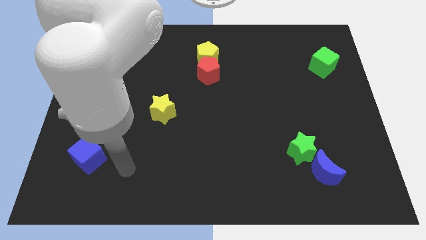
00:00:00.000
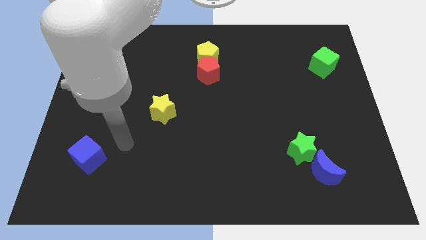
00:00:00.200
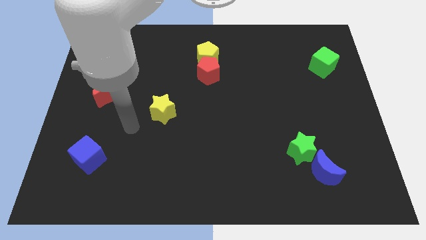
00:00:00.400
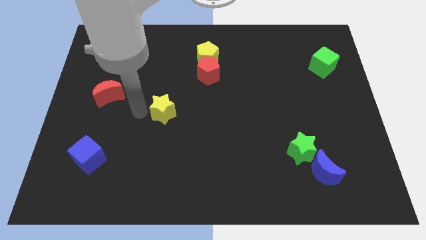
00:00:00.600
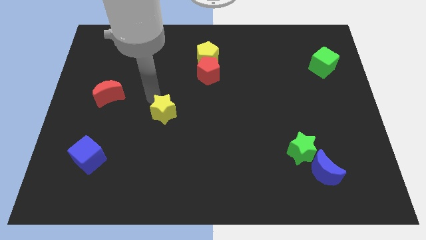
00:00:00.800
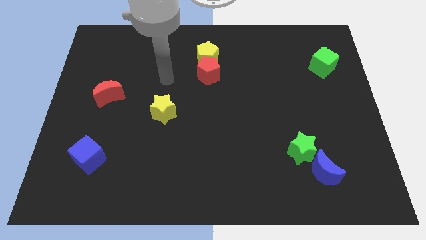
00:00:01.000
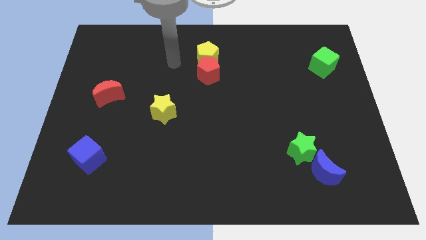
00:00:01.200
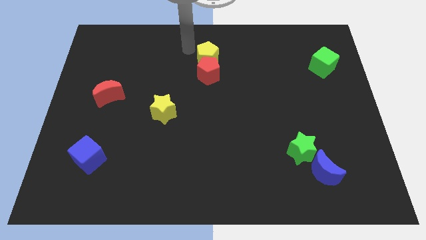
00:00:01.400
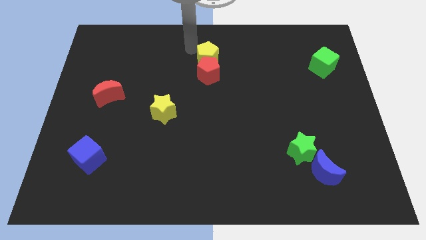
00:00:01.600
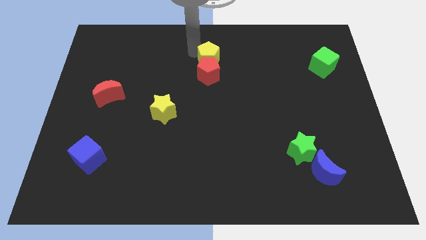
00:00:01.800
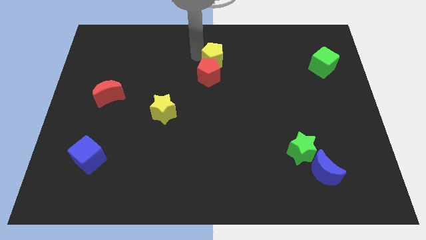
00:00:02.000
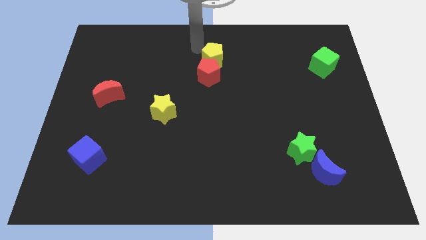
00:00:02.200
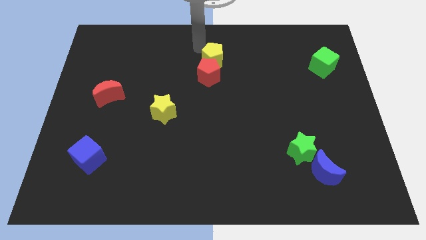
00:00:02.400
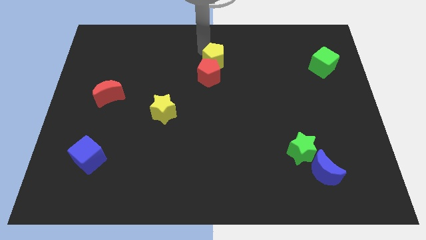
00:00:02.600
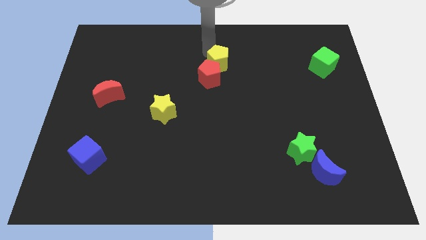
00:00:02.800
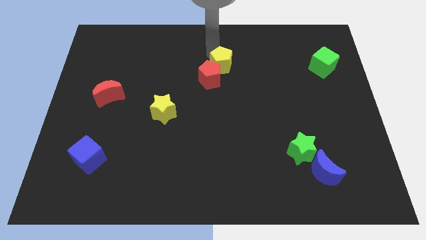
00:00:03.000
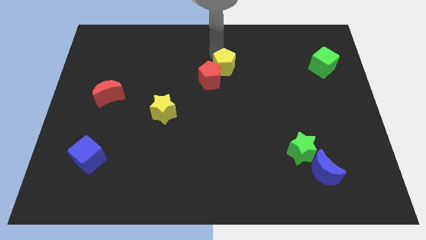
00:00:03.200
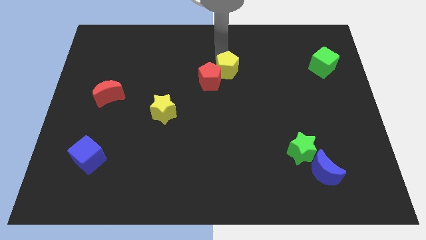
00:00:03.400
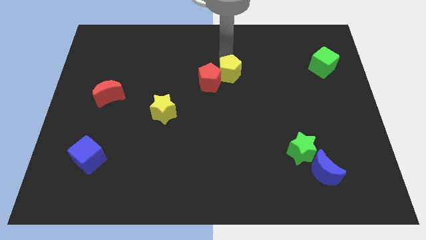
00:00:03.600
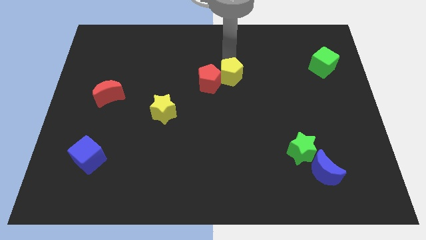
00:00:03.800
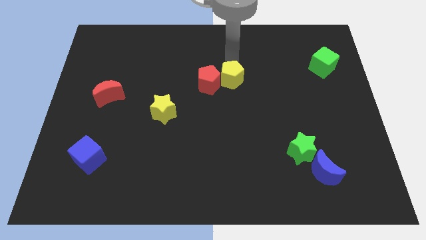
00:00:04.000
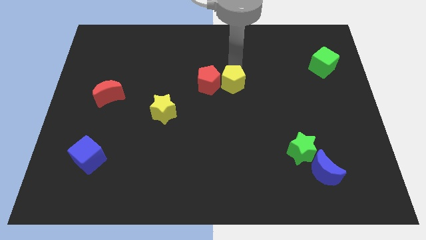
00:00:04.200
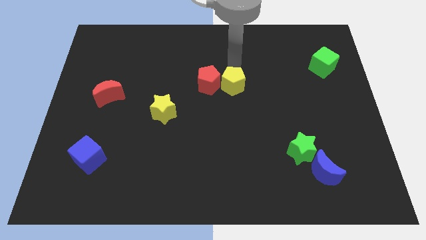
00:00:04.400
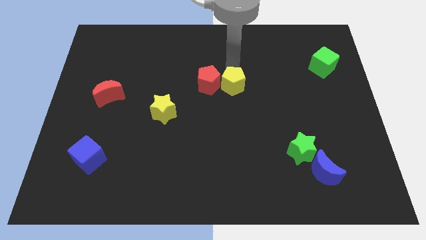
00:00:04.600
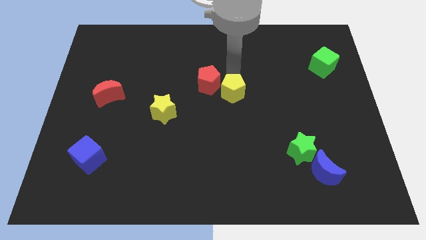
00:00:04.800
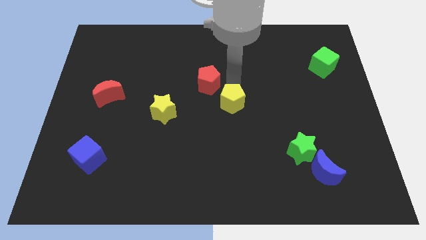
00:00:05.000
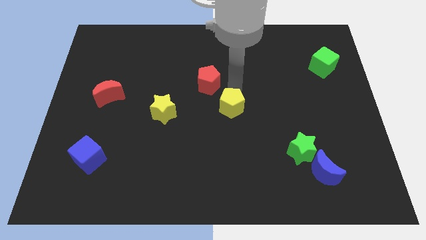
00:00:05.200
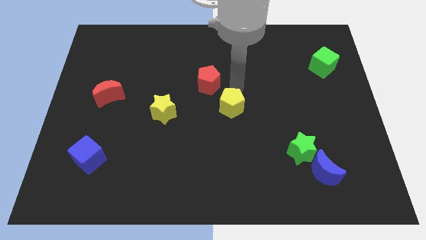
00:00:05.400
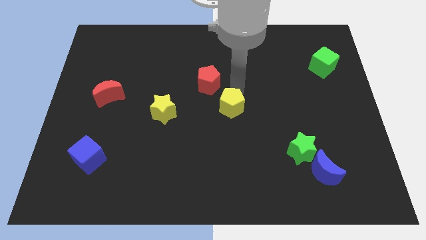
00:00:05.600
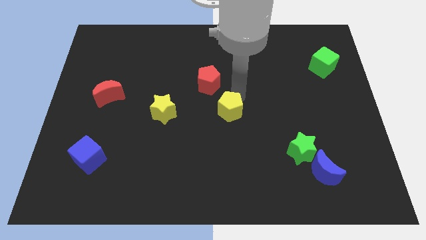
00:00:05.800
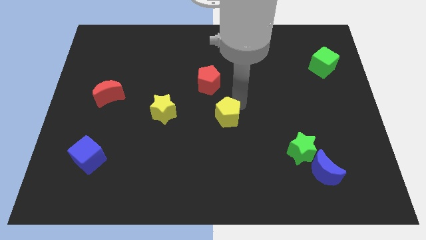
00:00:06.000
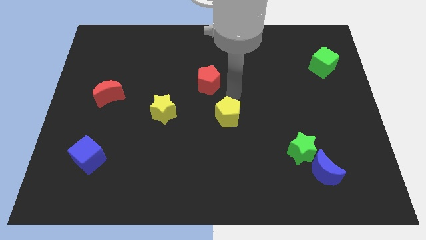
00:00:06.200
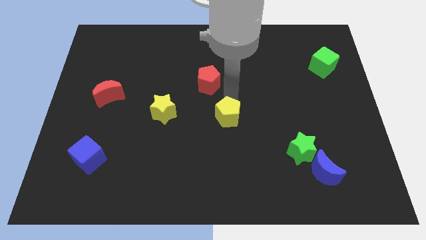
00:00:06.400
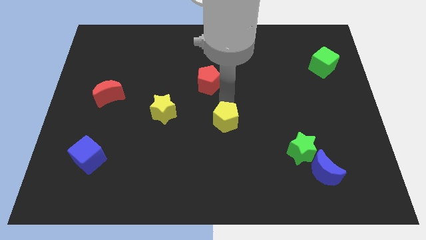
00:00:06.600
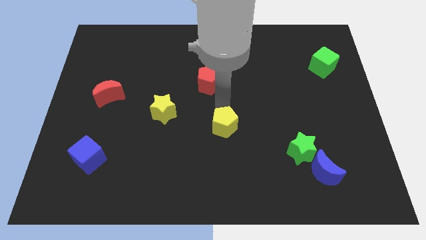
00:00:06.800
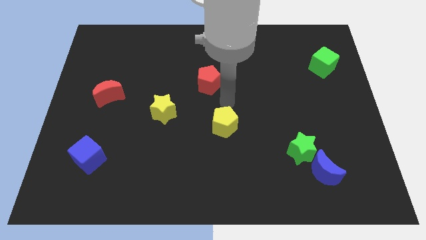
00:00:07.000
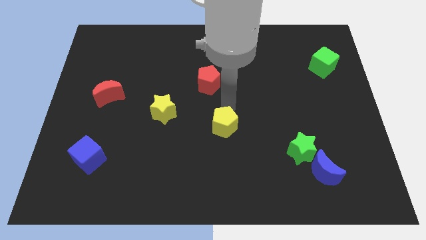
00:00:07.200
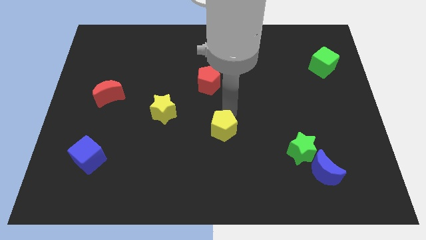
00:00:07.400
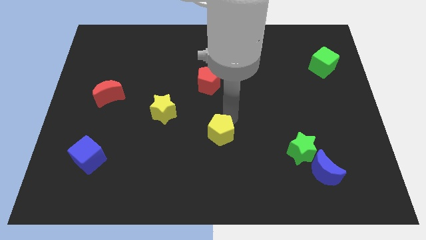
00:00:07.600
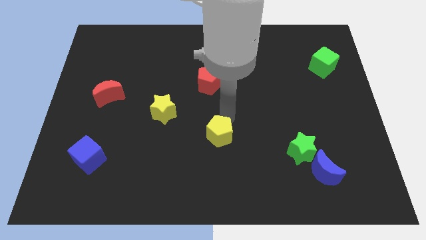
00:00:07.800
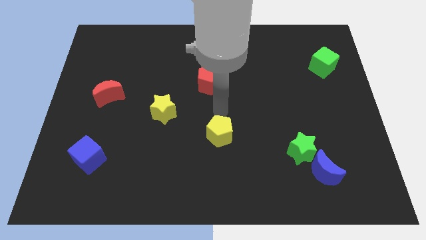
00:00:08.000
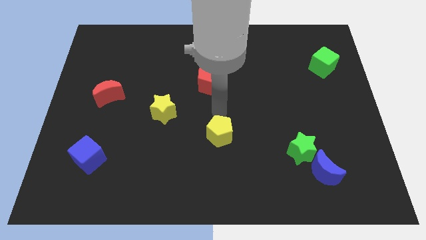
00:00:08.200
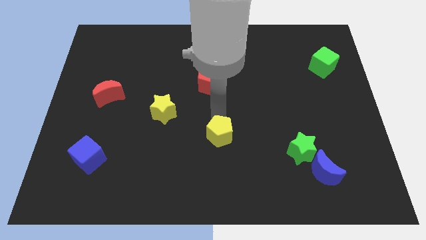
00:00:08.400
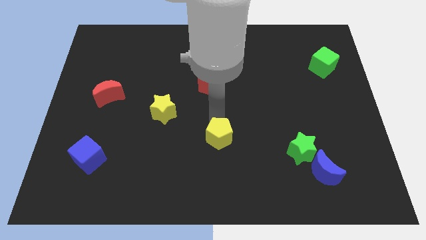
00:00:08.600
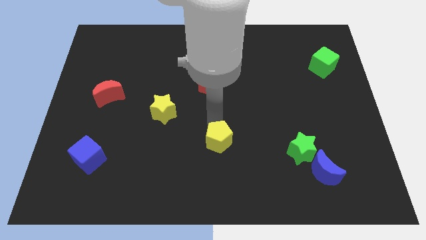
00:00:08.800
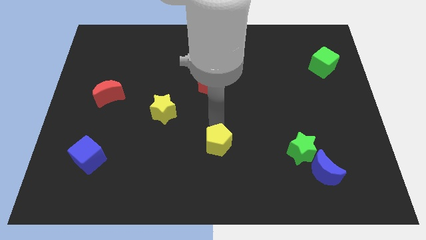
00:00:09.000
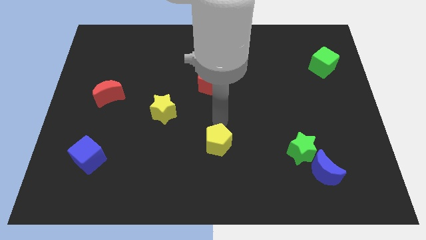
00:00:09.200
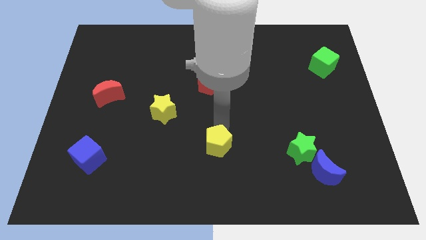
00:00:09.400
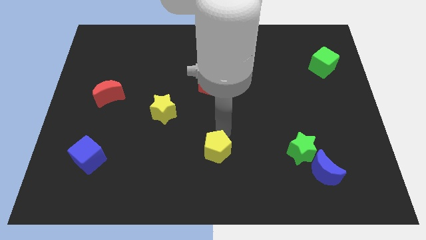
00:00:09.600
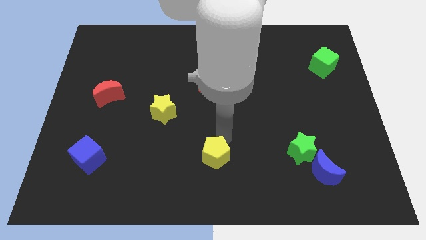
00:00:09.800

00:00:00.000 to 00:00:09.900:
put the yellow pentagon to the bottom side

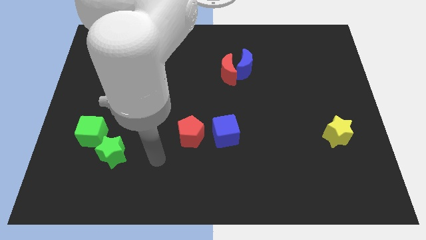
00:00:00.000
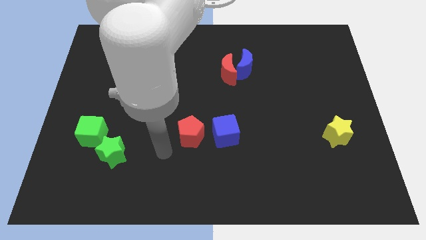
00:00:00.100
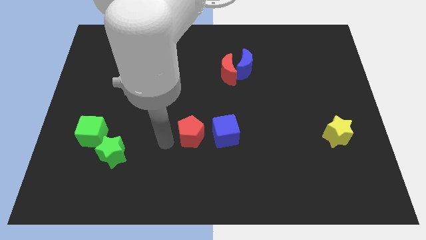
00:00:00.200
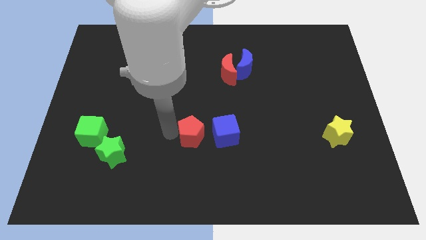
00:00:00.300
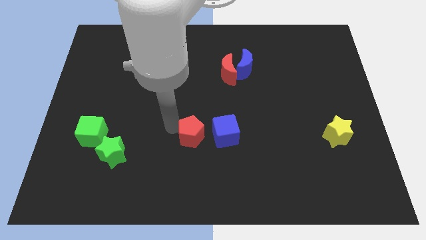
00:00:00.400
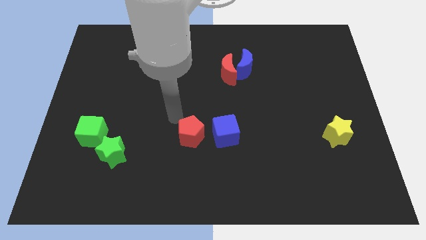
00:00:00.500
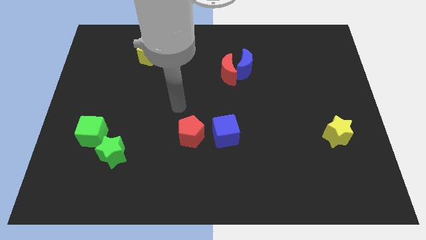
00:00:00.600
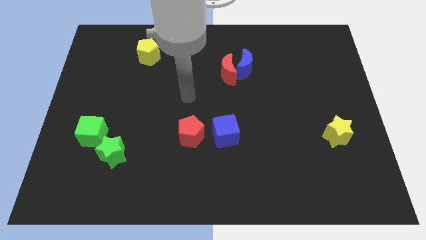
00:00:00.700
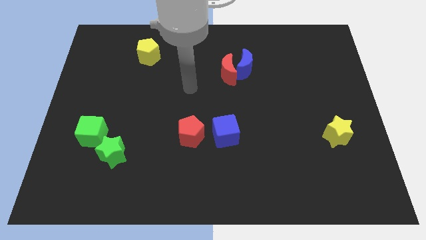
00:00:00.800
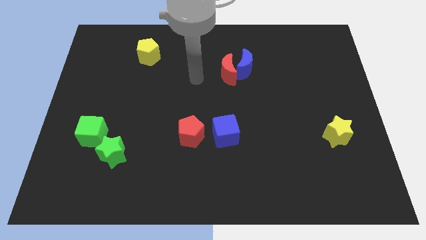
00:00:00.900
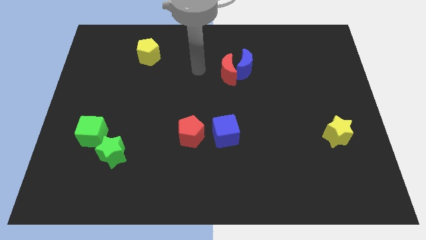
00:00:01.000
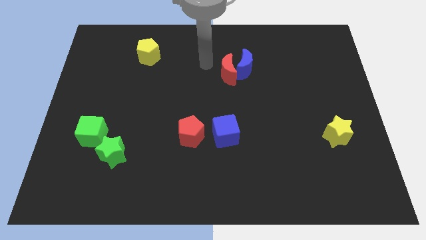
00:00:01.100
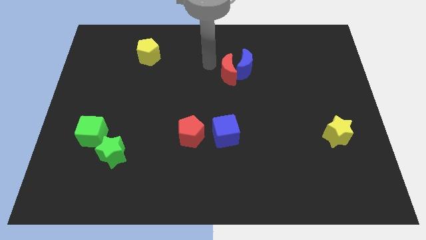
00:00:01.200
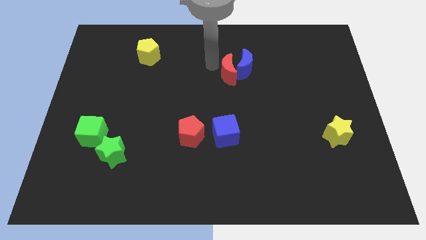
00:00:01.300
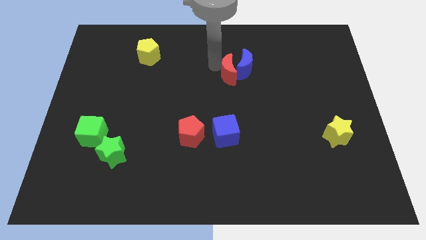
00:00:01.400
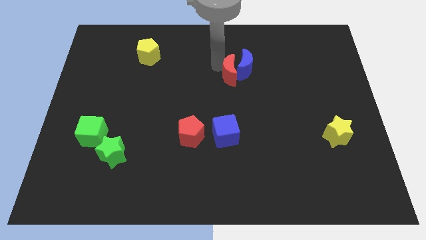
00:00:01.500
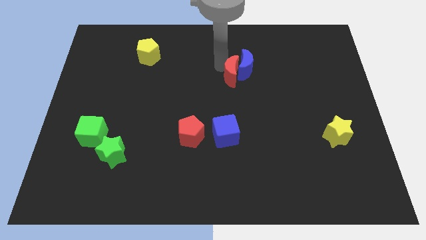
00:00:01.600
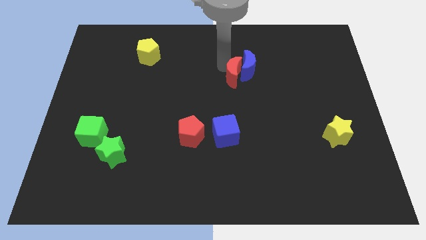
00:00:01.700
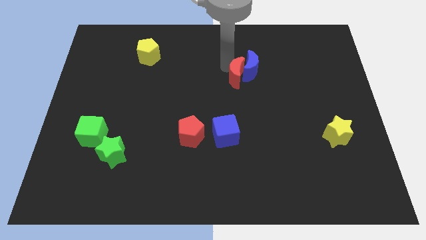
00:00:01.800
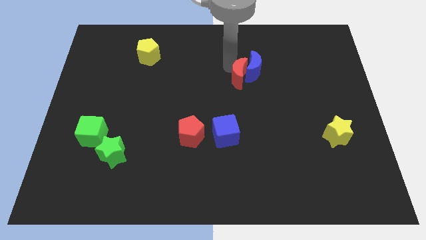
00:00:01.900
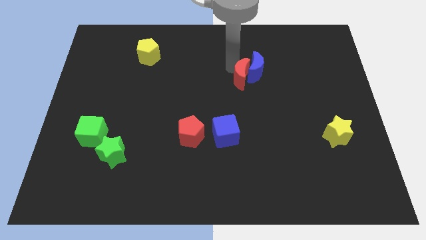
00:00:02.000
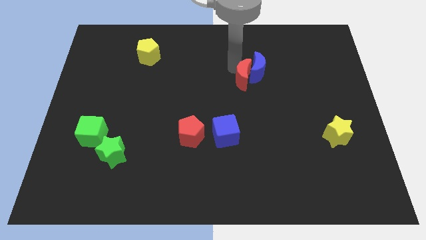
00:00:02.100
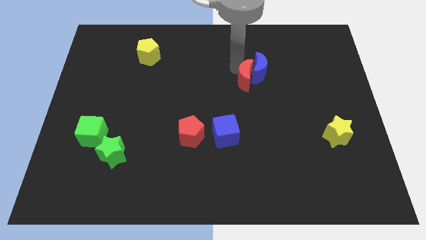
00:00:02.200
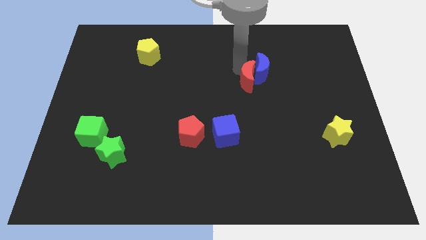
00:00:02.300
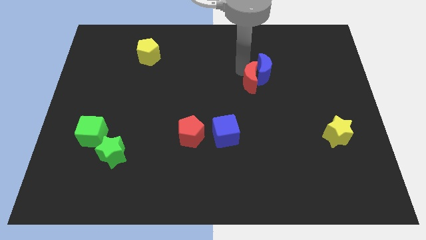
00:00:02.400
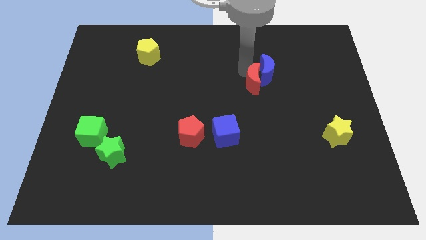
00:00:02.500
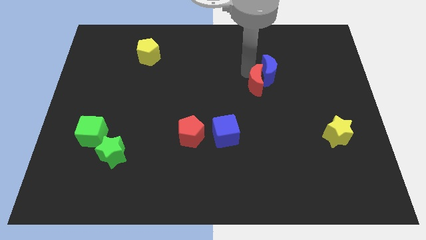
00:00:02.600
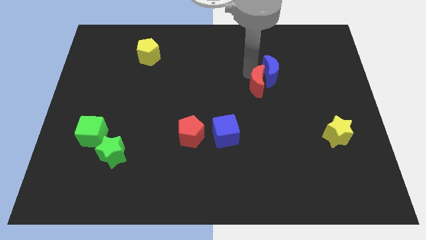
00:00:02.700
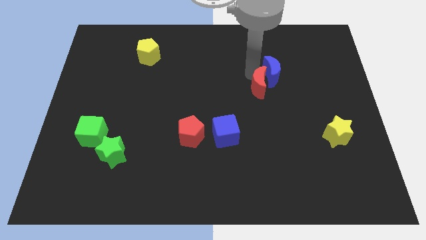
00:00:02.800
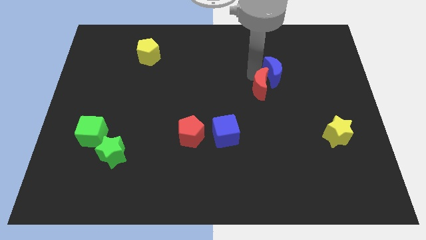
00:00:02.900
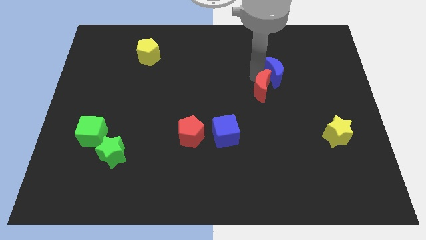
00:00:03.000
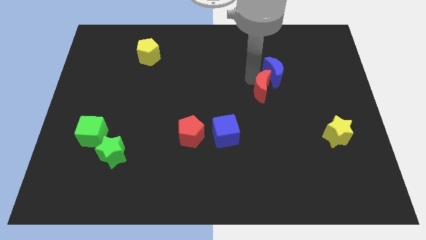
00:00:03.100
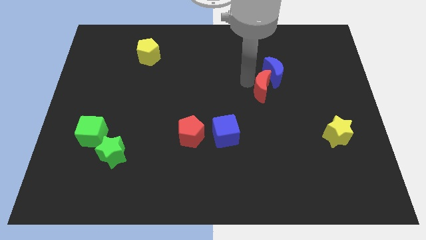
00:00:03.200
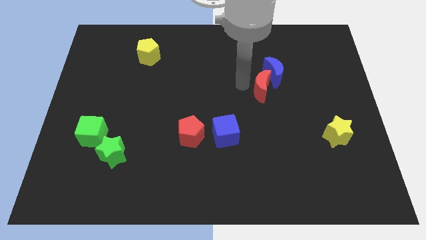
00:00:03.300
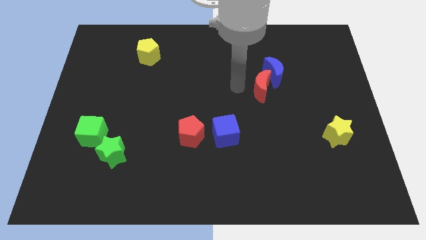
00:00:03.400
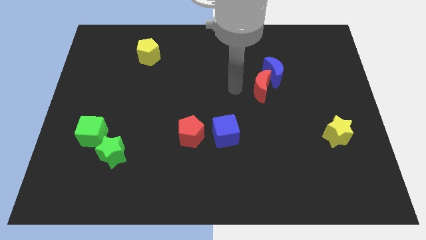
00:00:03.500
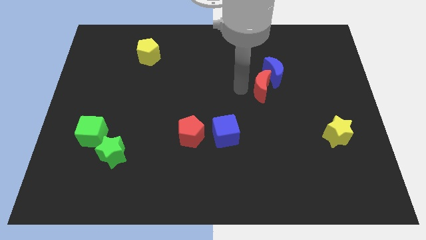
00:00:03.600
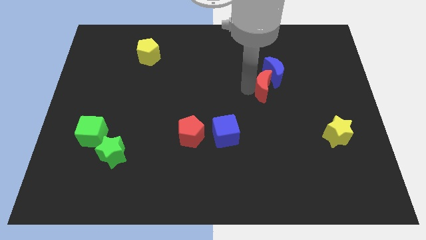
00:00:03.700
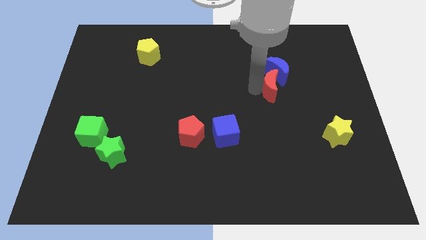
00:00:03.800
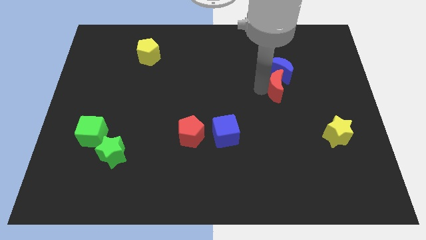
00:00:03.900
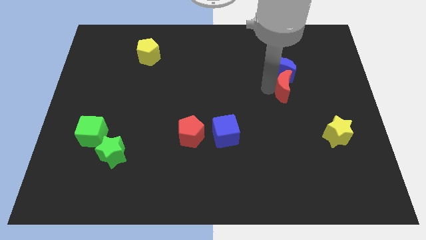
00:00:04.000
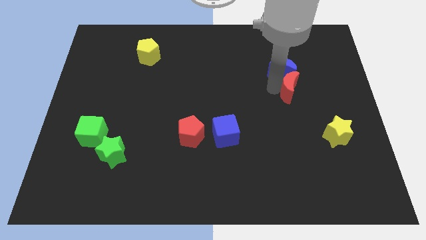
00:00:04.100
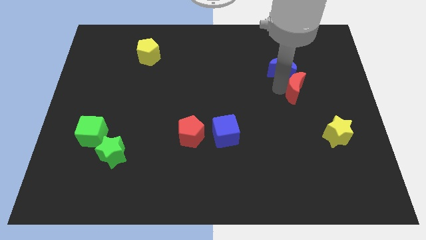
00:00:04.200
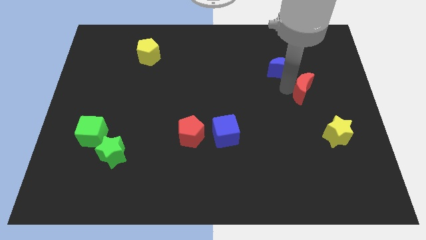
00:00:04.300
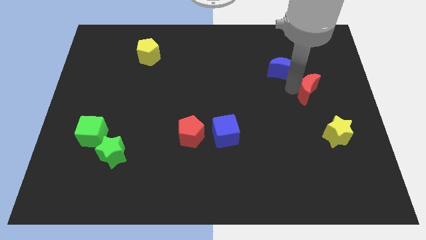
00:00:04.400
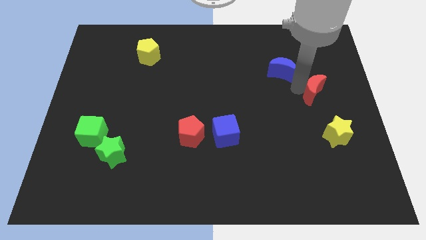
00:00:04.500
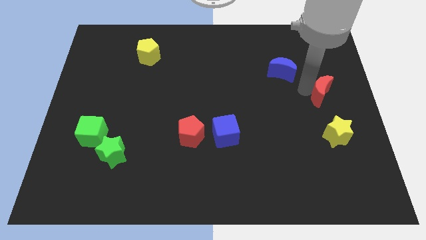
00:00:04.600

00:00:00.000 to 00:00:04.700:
move the red moon to the right side of the board
